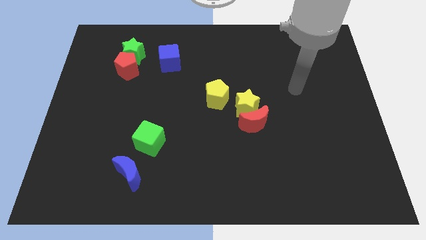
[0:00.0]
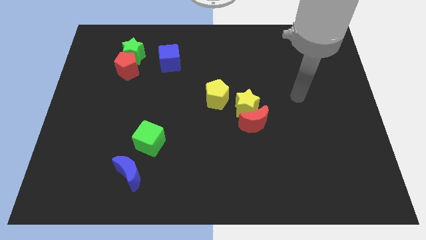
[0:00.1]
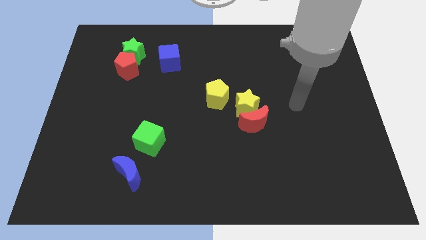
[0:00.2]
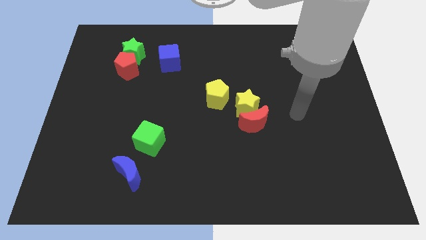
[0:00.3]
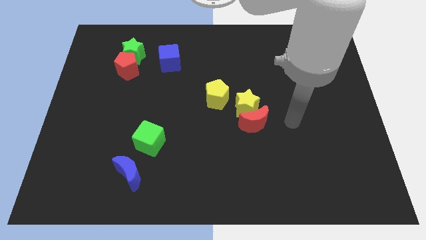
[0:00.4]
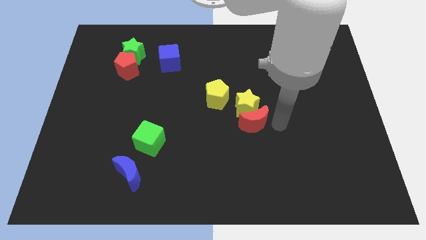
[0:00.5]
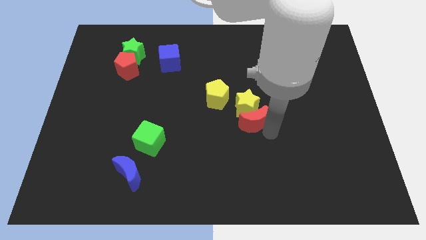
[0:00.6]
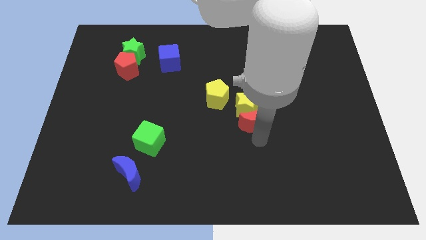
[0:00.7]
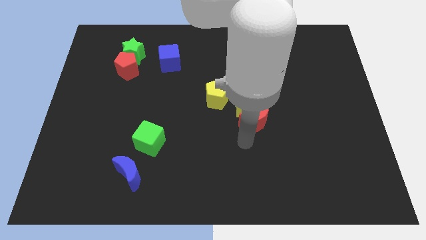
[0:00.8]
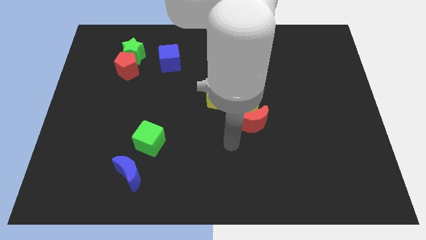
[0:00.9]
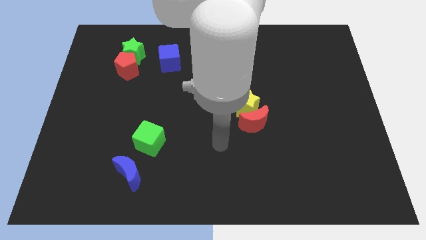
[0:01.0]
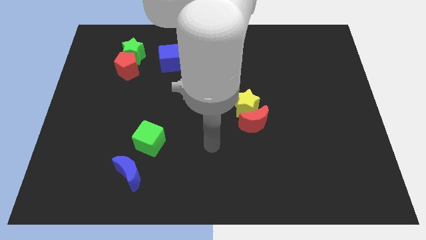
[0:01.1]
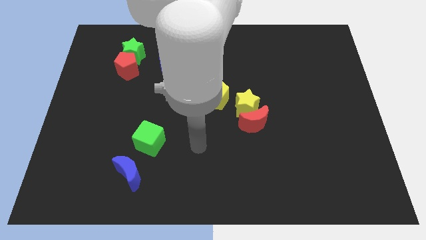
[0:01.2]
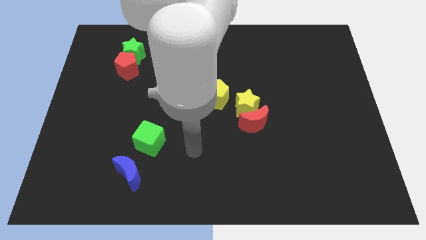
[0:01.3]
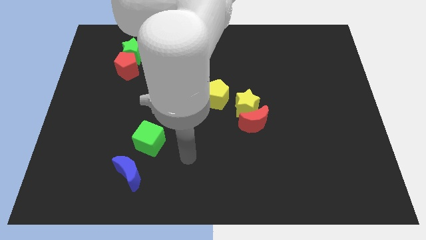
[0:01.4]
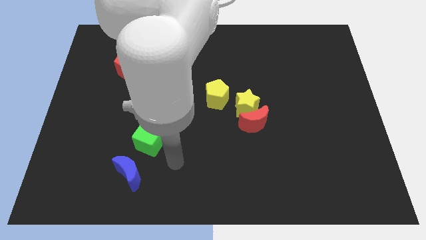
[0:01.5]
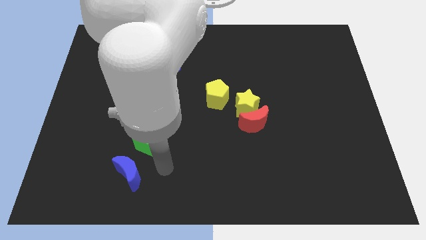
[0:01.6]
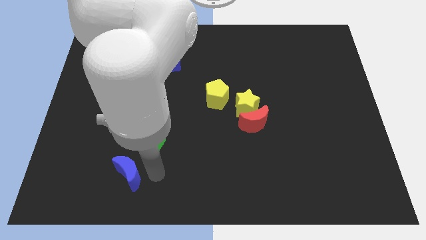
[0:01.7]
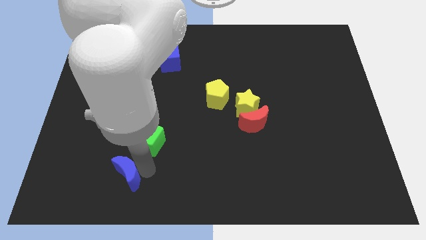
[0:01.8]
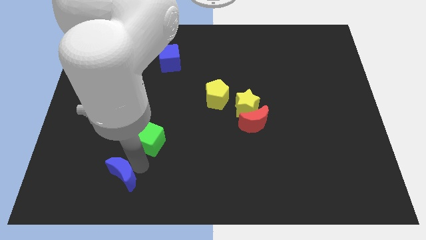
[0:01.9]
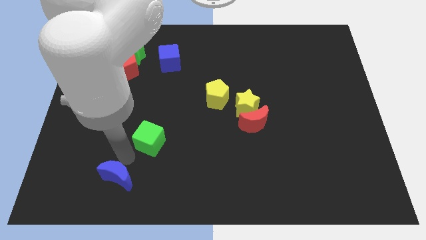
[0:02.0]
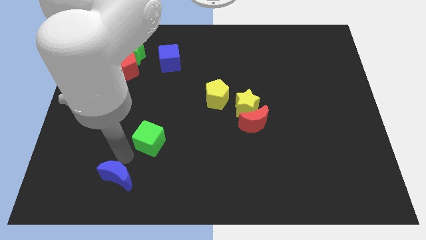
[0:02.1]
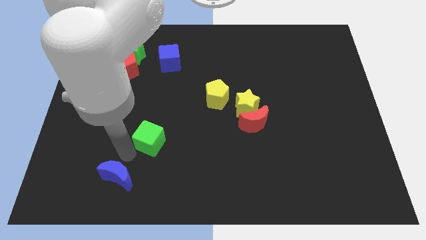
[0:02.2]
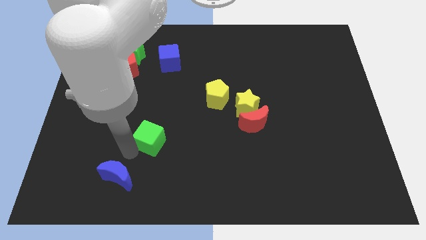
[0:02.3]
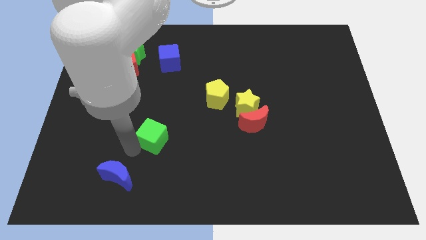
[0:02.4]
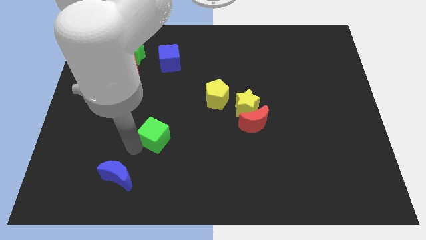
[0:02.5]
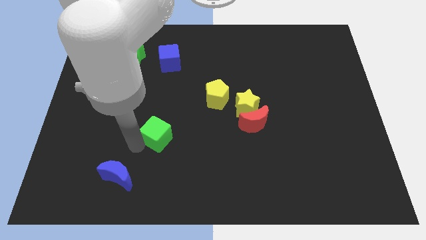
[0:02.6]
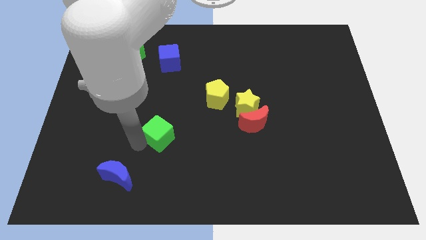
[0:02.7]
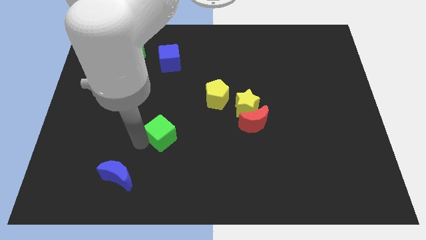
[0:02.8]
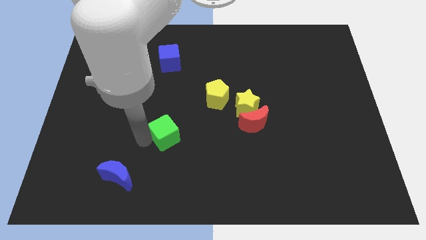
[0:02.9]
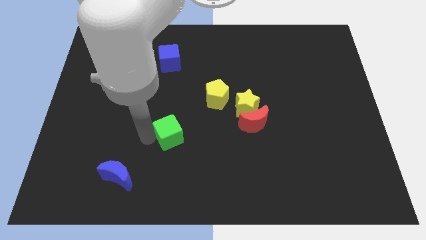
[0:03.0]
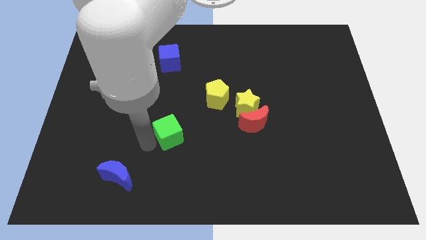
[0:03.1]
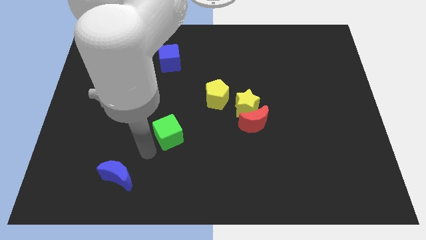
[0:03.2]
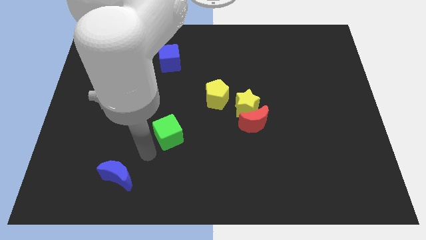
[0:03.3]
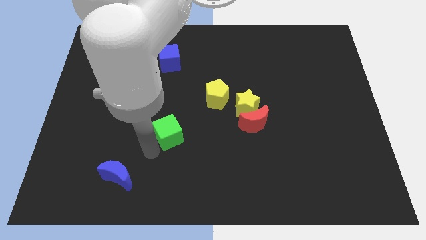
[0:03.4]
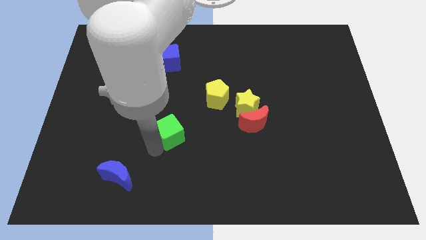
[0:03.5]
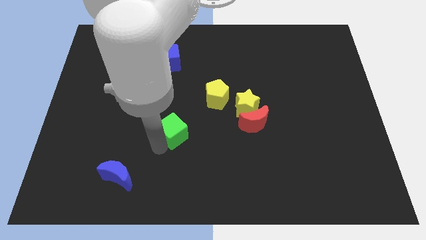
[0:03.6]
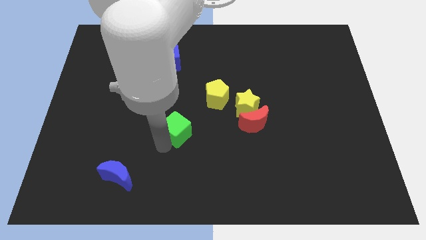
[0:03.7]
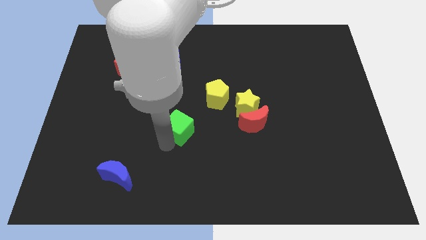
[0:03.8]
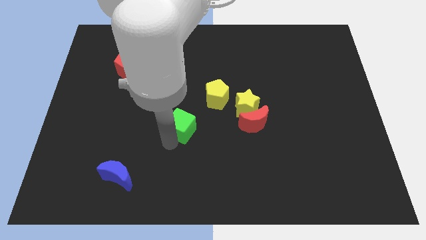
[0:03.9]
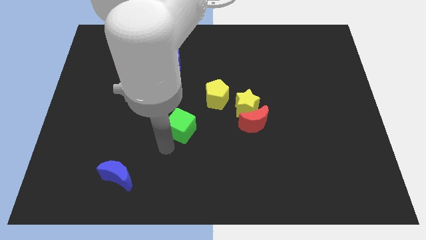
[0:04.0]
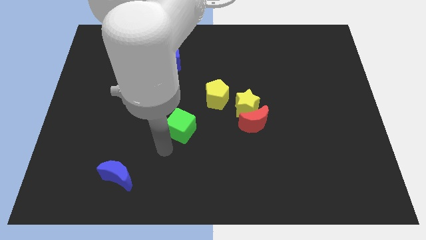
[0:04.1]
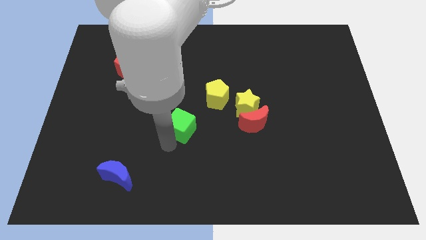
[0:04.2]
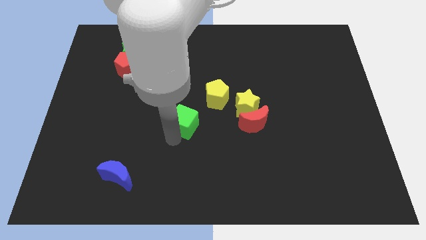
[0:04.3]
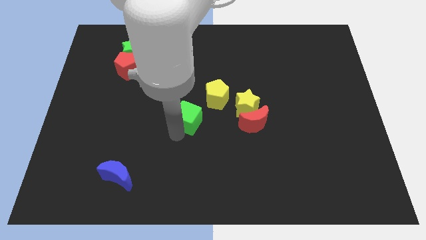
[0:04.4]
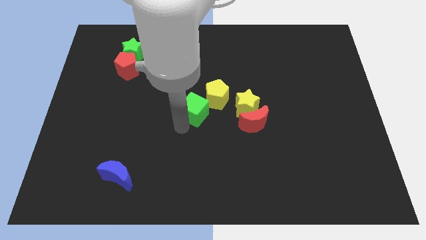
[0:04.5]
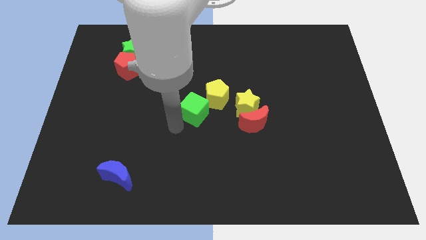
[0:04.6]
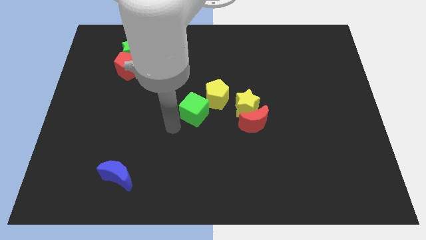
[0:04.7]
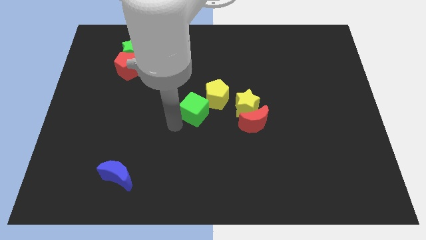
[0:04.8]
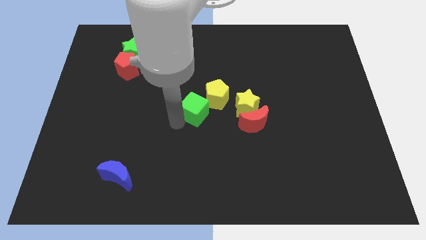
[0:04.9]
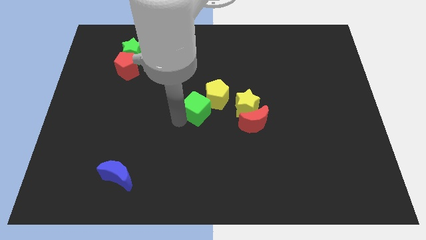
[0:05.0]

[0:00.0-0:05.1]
move the green cube towards the yellow pentagon

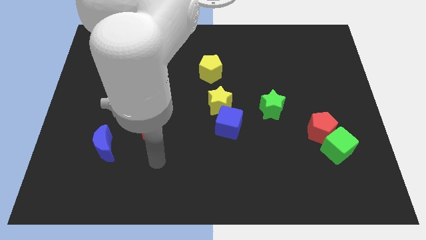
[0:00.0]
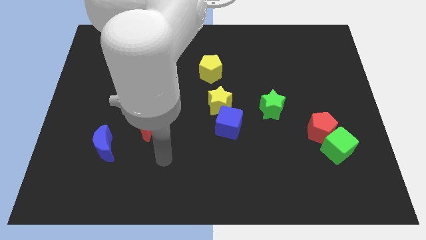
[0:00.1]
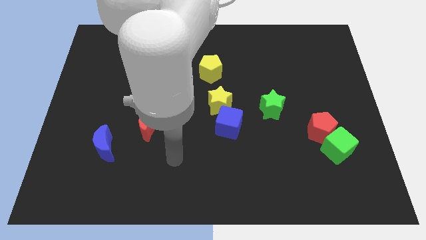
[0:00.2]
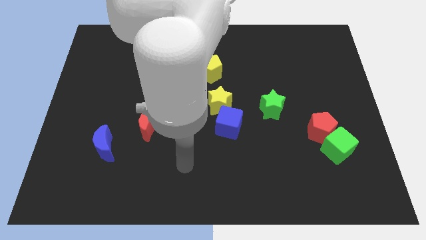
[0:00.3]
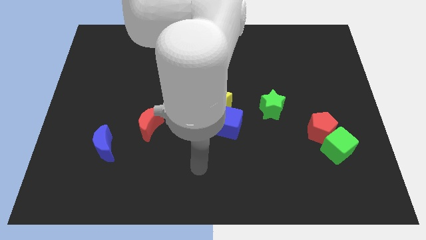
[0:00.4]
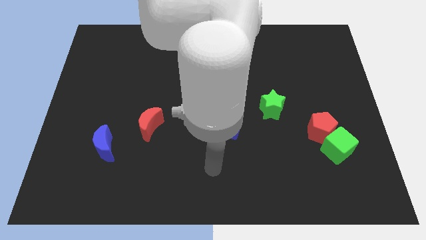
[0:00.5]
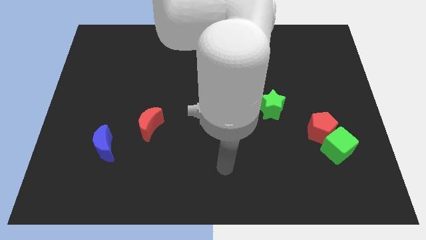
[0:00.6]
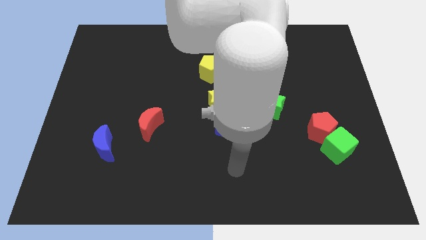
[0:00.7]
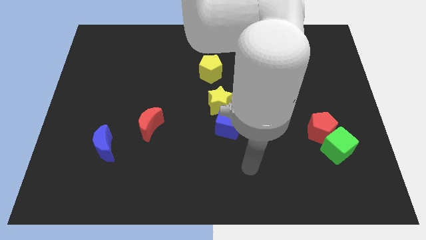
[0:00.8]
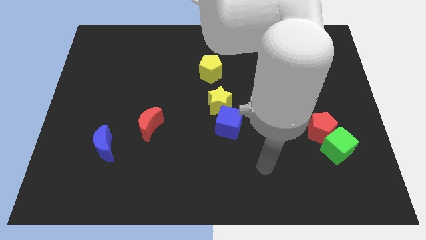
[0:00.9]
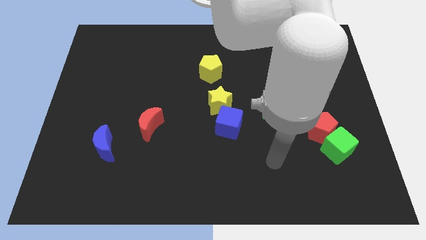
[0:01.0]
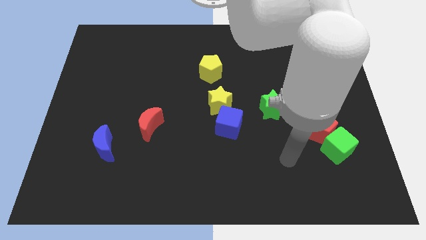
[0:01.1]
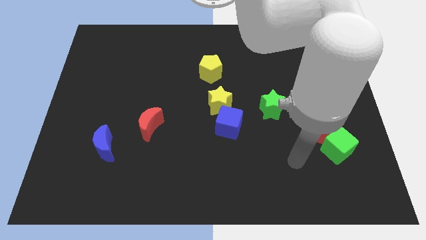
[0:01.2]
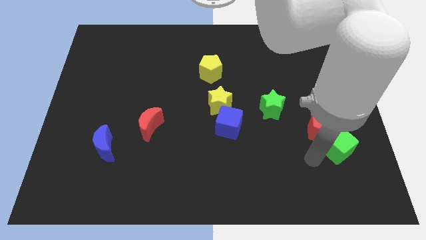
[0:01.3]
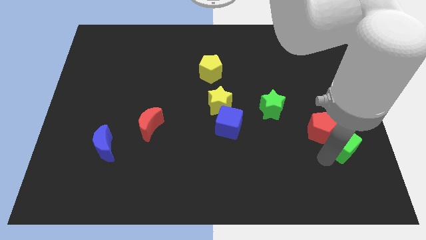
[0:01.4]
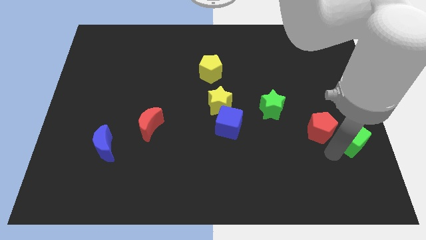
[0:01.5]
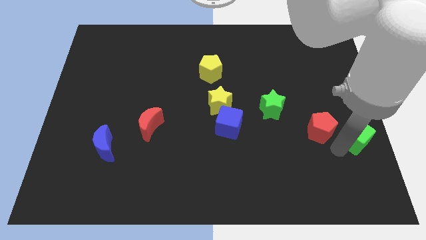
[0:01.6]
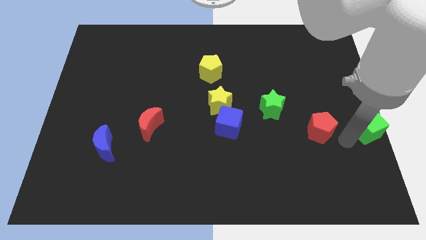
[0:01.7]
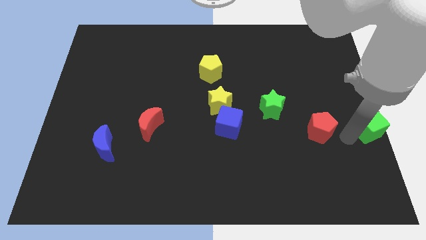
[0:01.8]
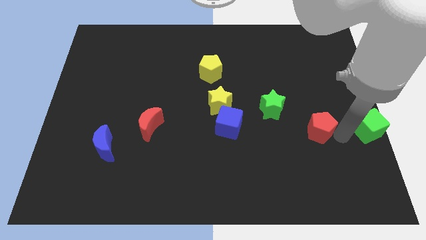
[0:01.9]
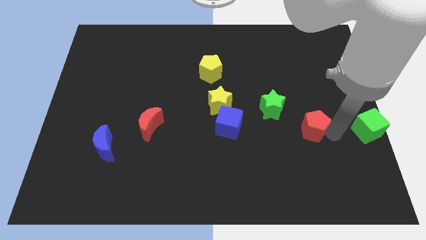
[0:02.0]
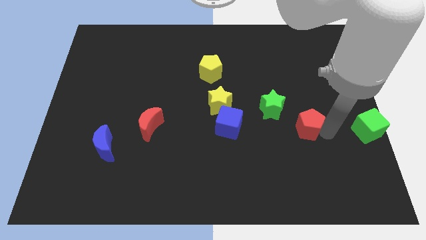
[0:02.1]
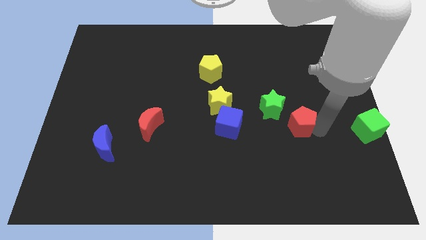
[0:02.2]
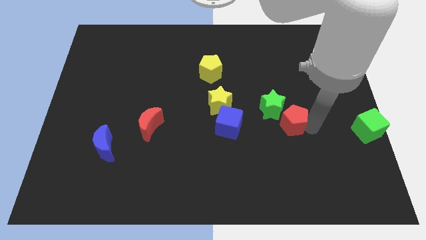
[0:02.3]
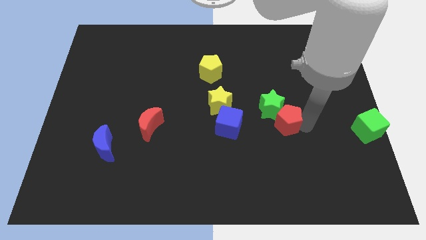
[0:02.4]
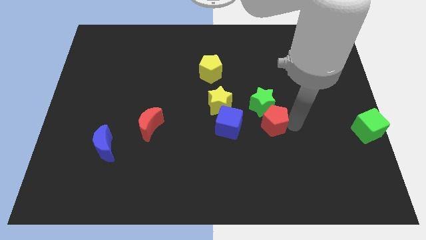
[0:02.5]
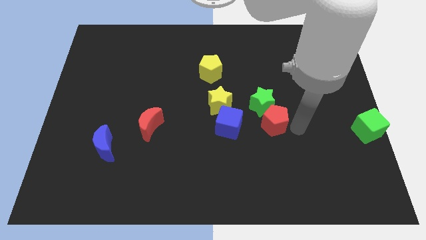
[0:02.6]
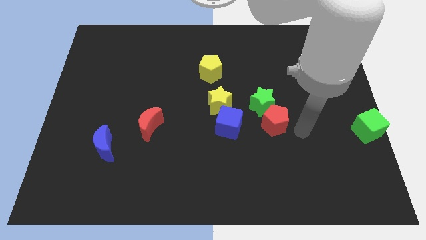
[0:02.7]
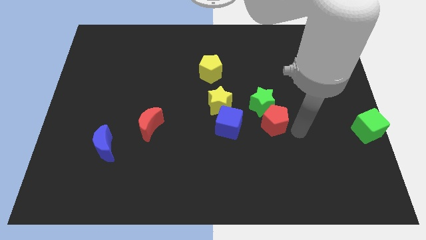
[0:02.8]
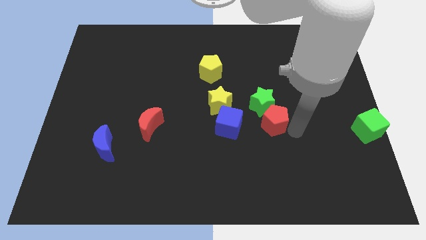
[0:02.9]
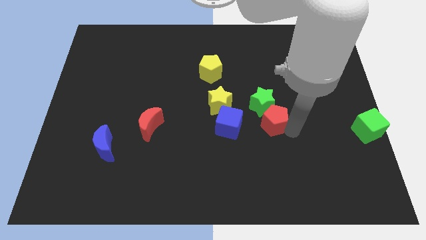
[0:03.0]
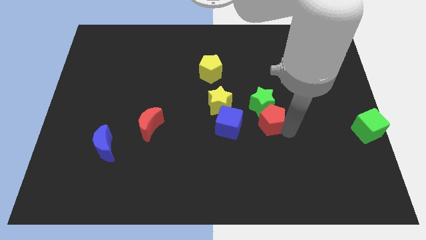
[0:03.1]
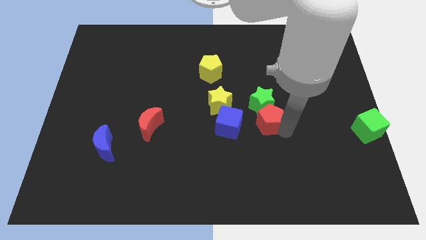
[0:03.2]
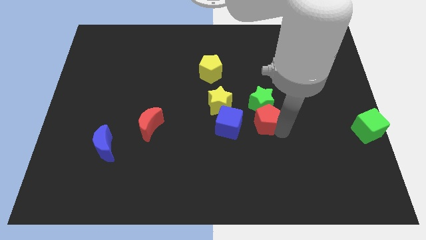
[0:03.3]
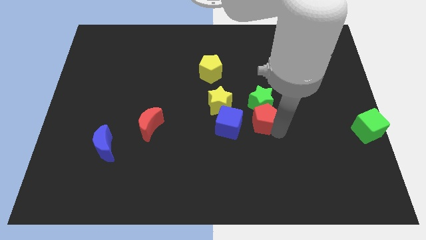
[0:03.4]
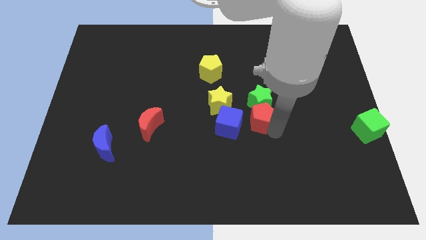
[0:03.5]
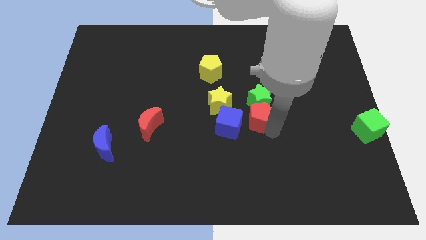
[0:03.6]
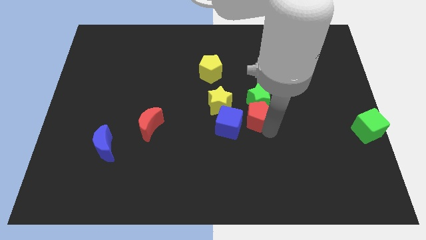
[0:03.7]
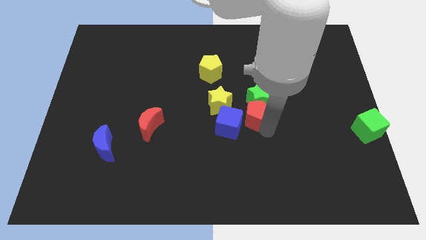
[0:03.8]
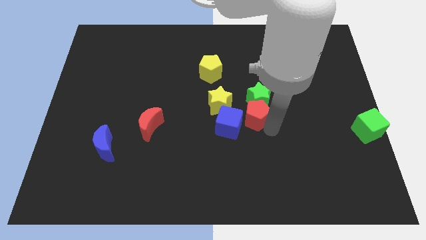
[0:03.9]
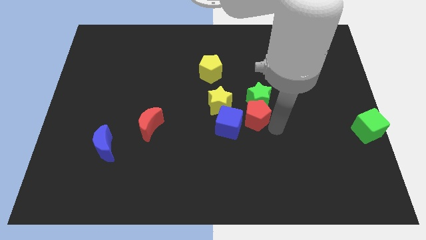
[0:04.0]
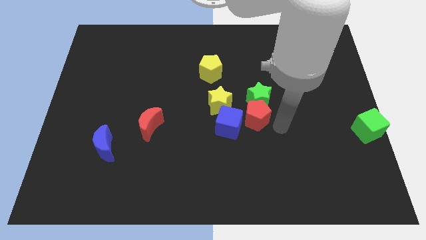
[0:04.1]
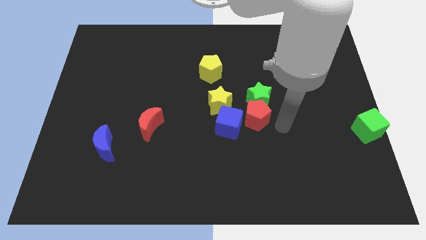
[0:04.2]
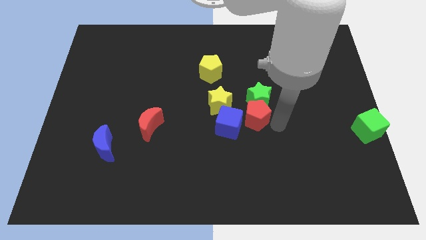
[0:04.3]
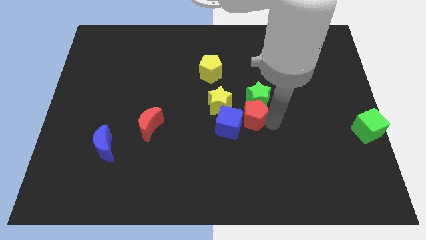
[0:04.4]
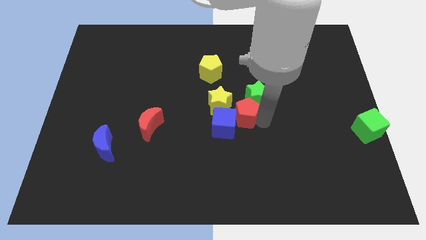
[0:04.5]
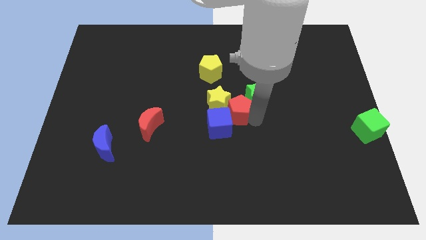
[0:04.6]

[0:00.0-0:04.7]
put the red pentagon close to the yellow star
